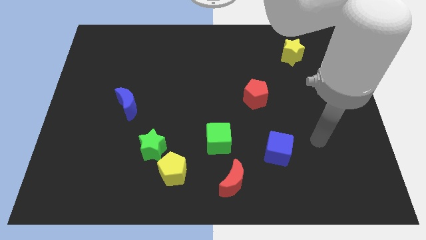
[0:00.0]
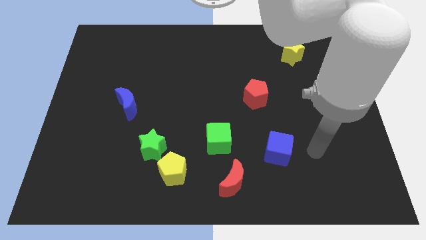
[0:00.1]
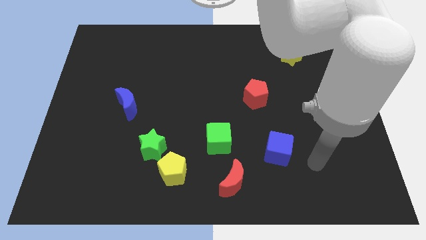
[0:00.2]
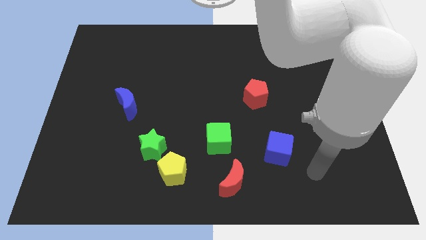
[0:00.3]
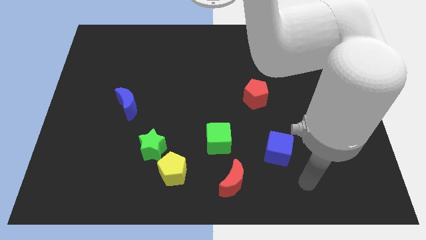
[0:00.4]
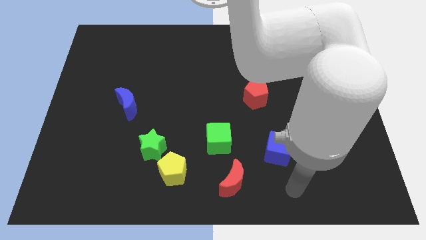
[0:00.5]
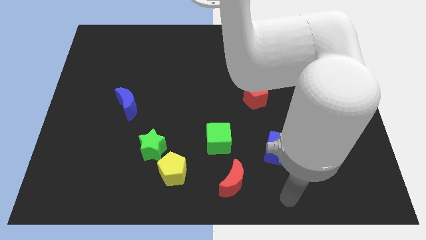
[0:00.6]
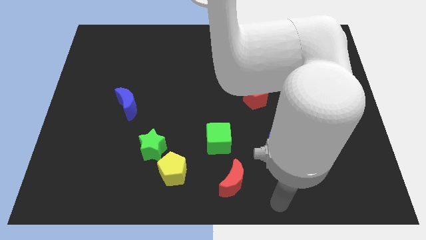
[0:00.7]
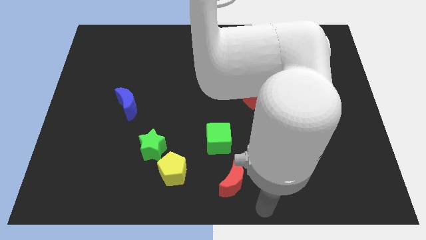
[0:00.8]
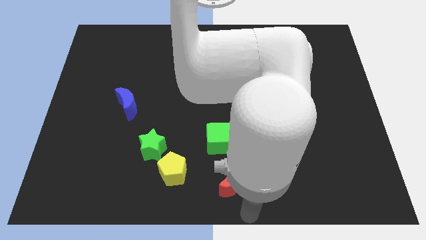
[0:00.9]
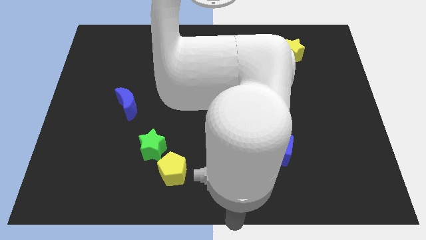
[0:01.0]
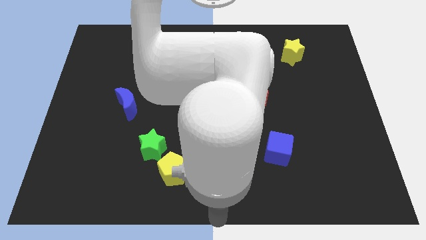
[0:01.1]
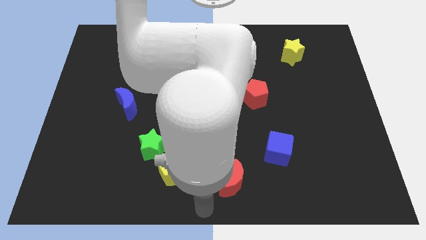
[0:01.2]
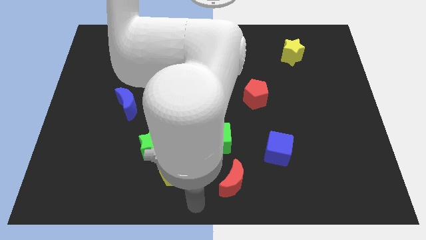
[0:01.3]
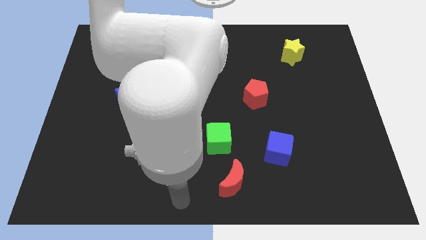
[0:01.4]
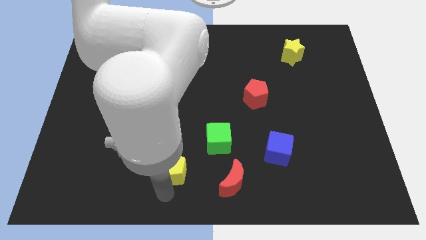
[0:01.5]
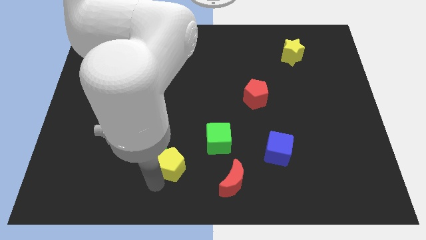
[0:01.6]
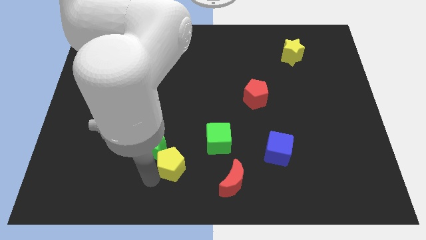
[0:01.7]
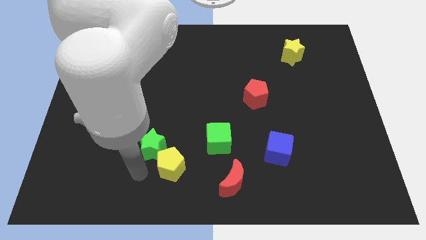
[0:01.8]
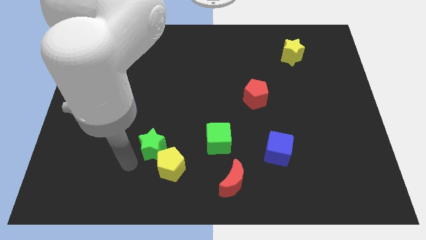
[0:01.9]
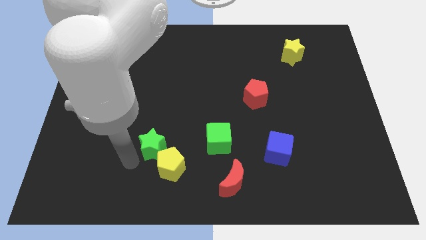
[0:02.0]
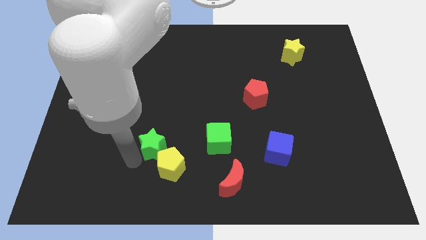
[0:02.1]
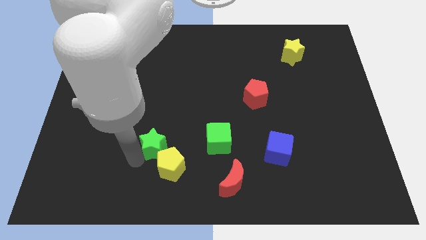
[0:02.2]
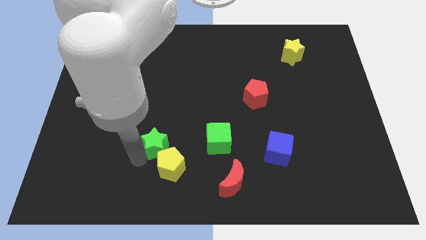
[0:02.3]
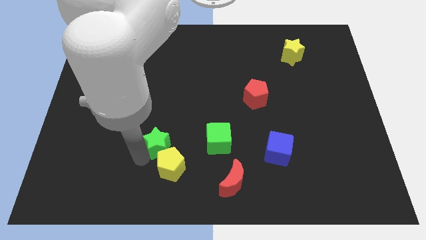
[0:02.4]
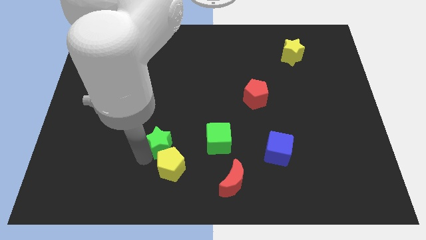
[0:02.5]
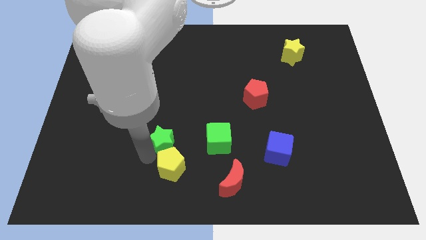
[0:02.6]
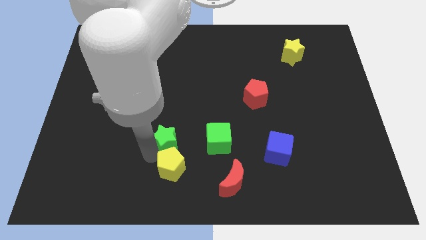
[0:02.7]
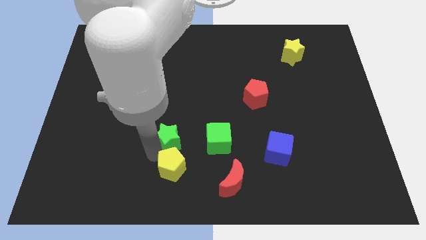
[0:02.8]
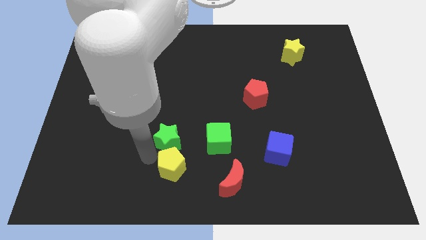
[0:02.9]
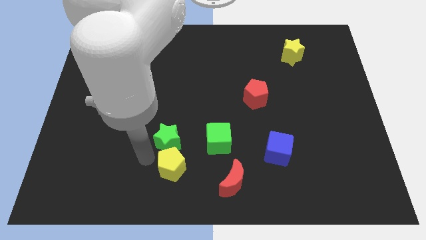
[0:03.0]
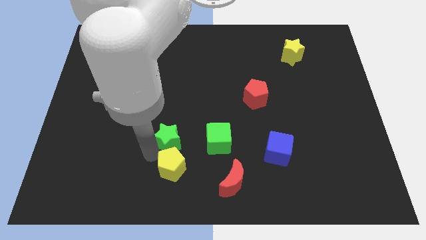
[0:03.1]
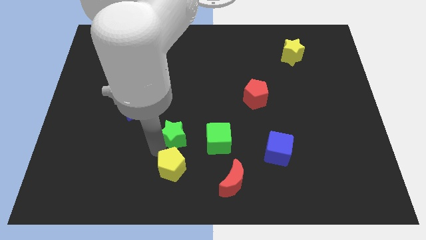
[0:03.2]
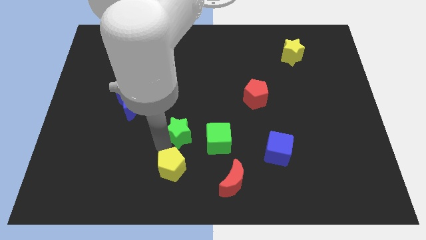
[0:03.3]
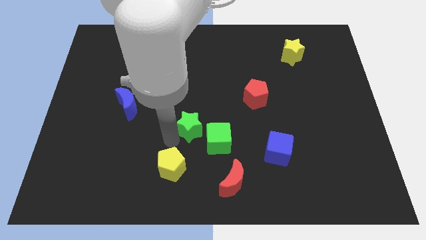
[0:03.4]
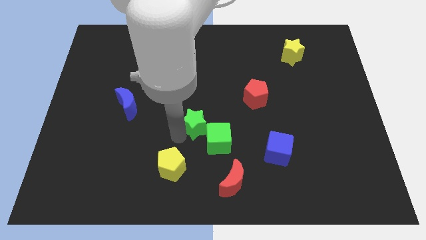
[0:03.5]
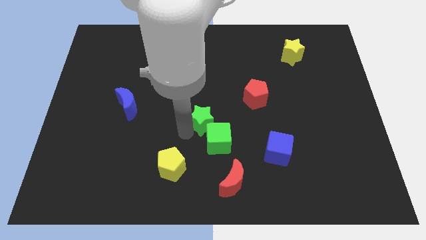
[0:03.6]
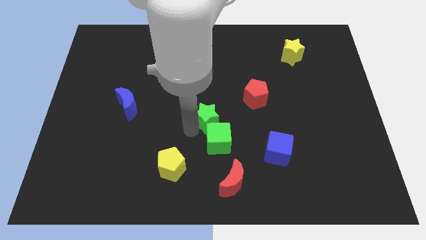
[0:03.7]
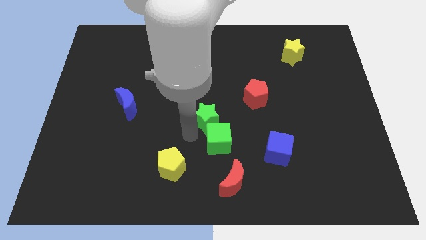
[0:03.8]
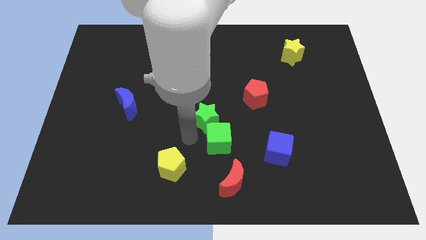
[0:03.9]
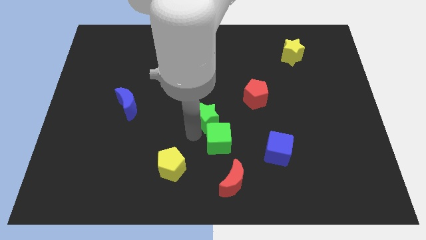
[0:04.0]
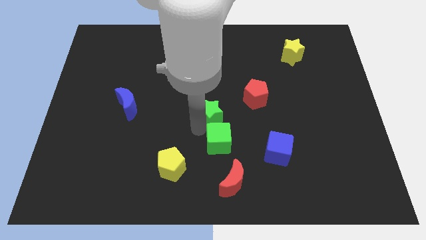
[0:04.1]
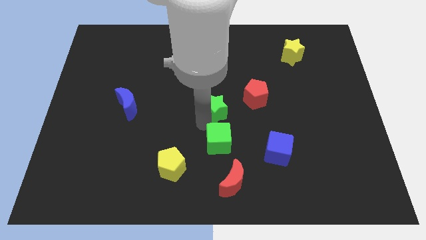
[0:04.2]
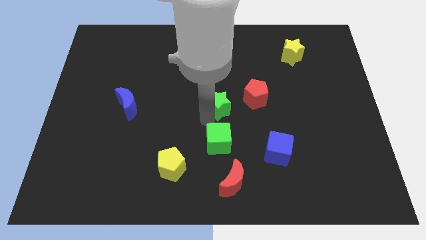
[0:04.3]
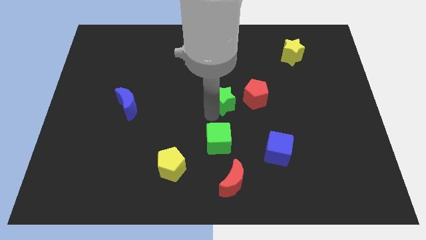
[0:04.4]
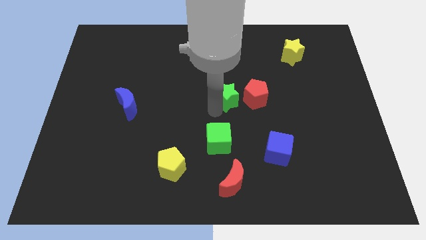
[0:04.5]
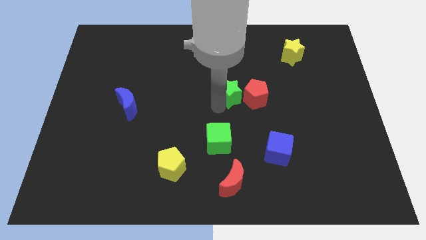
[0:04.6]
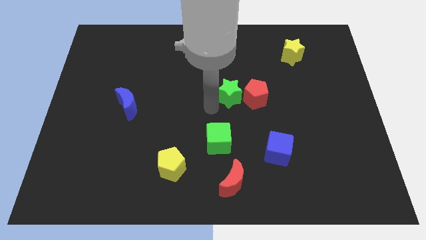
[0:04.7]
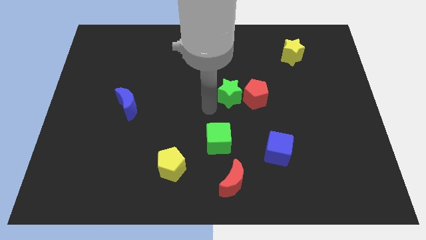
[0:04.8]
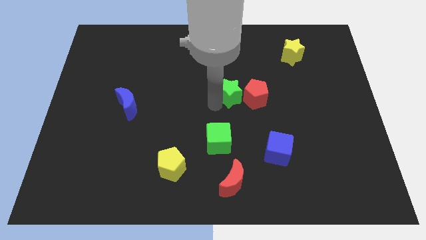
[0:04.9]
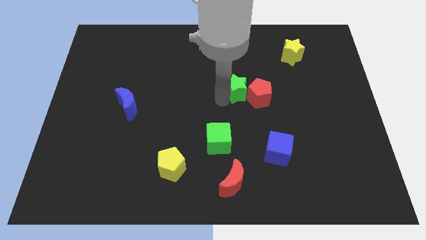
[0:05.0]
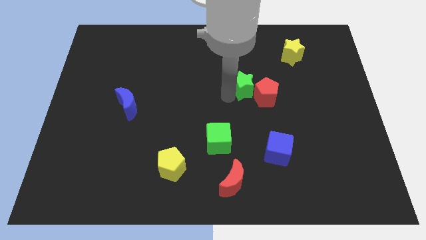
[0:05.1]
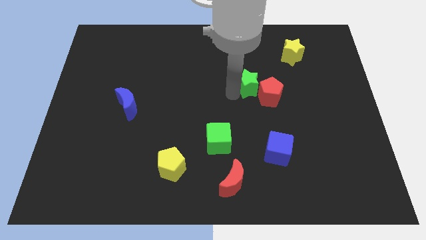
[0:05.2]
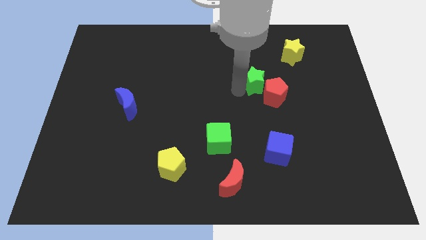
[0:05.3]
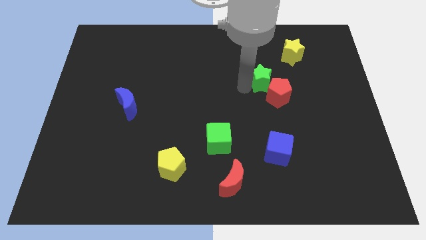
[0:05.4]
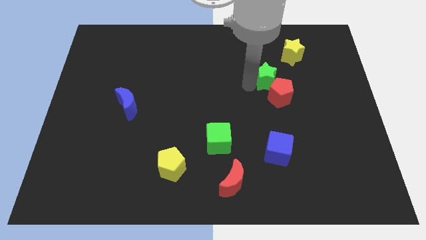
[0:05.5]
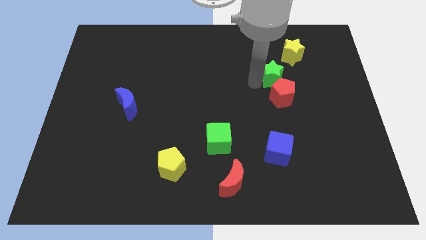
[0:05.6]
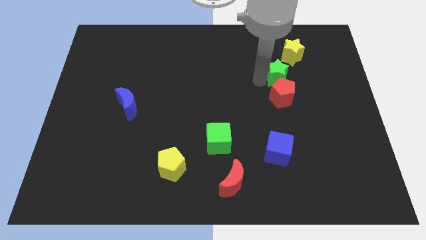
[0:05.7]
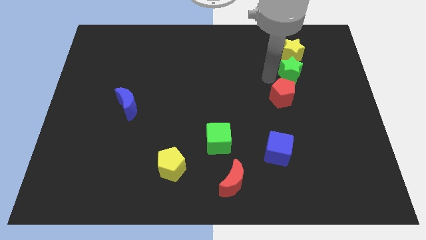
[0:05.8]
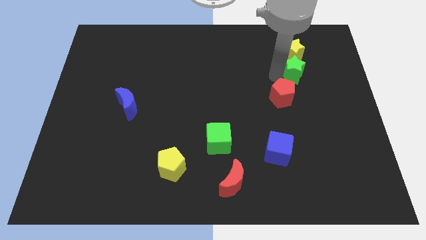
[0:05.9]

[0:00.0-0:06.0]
slide the green star to the bottom right side of the yellow star

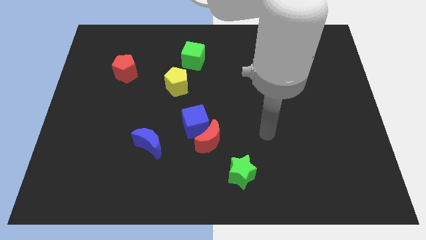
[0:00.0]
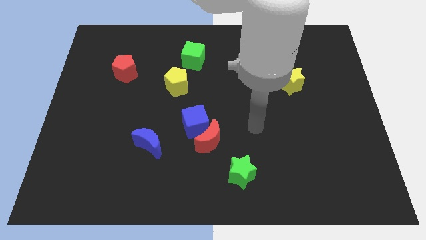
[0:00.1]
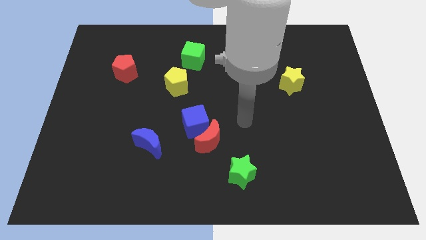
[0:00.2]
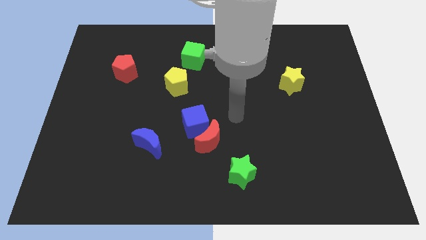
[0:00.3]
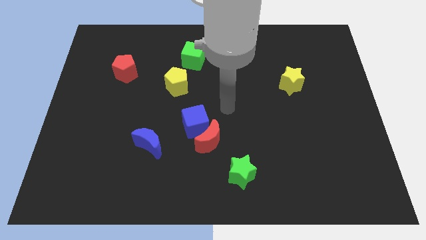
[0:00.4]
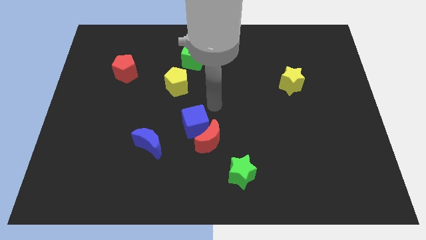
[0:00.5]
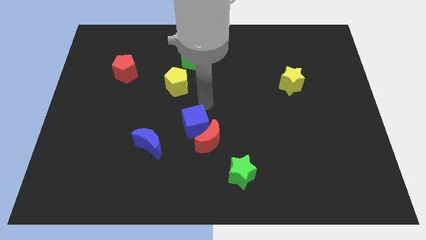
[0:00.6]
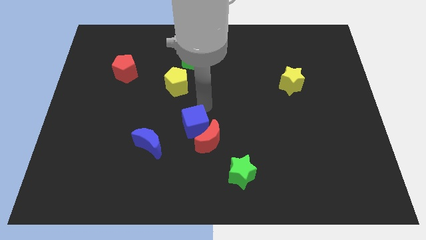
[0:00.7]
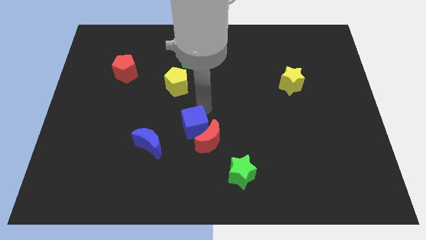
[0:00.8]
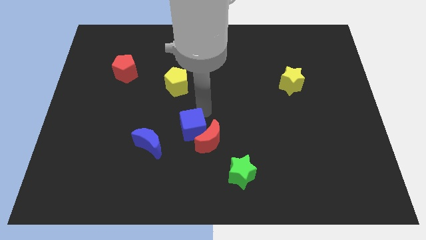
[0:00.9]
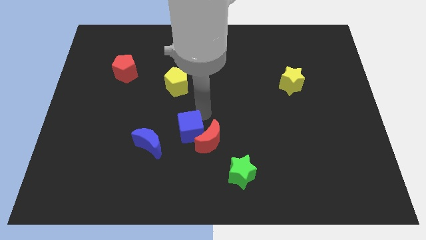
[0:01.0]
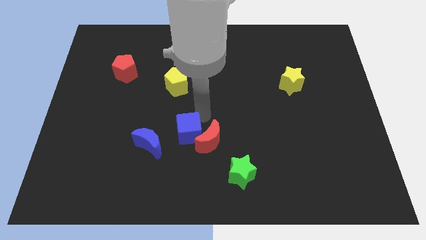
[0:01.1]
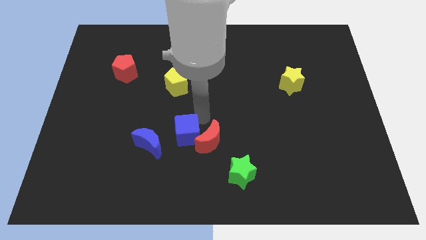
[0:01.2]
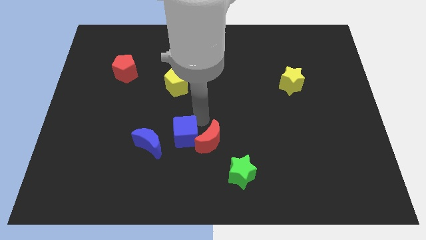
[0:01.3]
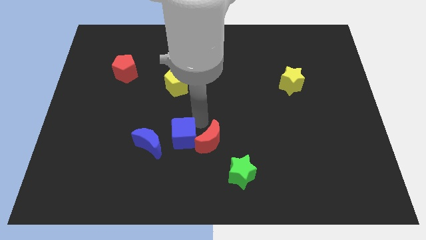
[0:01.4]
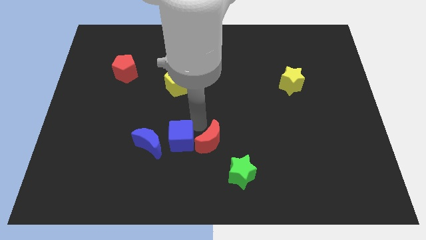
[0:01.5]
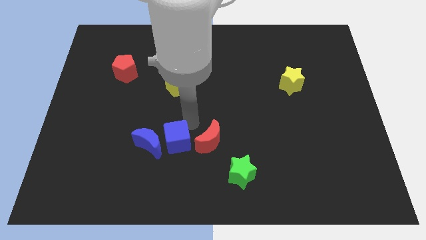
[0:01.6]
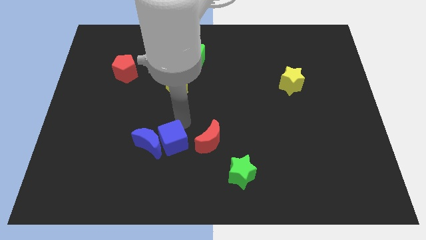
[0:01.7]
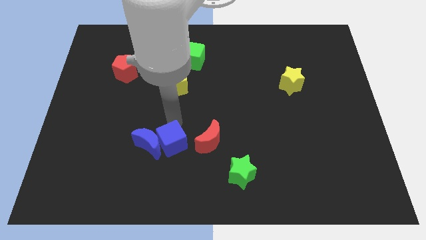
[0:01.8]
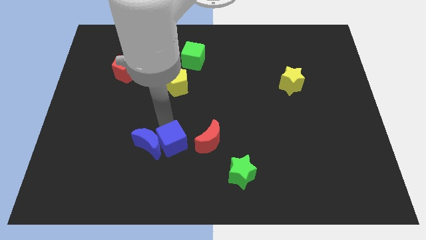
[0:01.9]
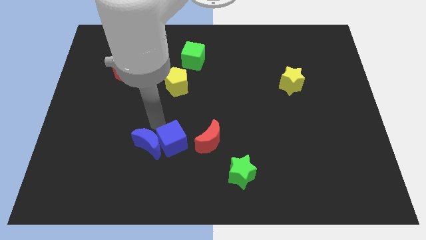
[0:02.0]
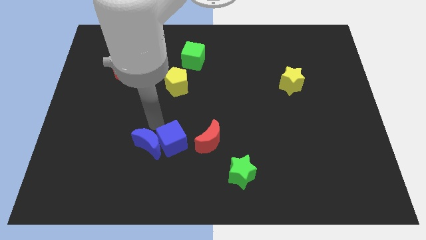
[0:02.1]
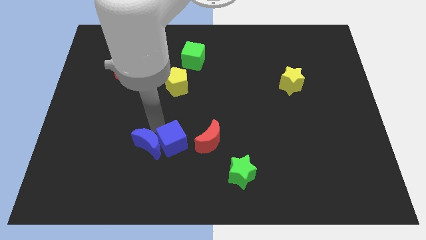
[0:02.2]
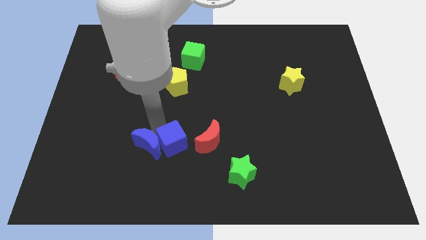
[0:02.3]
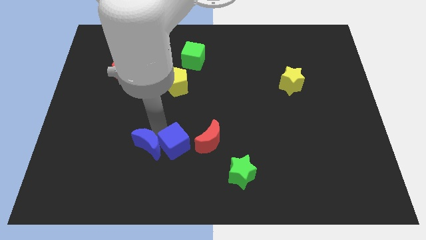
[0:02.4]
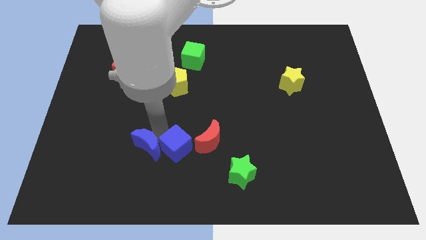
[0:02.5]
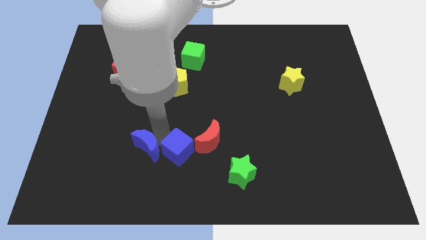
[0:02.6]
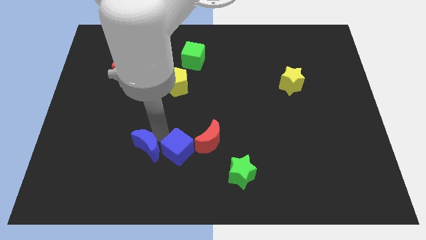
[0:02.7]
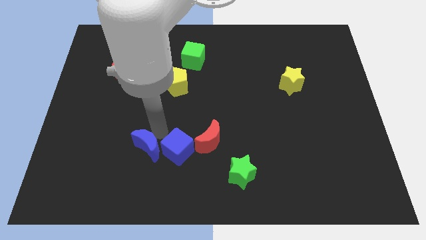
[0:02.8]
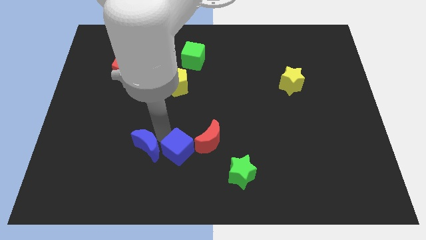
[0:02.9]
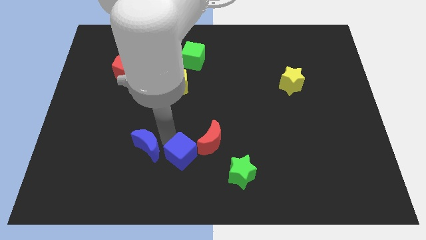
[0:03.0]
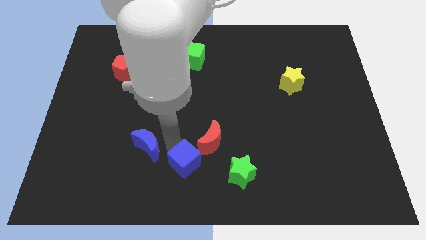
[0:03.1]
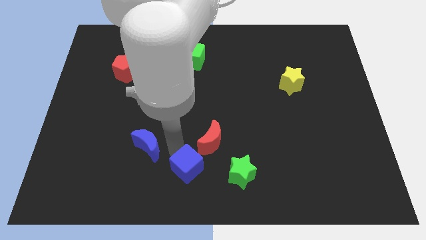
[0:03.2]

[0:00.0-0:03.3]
put the blue cube below the red moon
